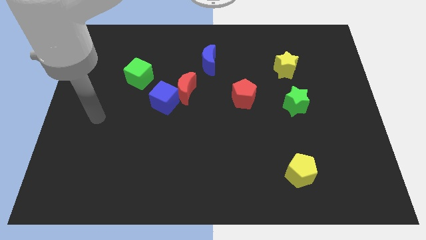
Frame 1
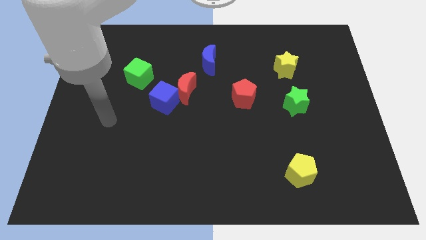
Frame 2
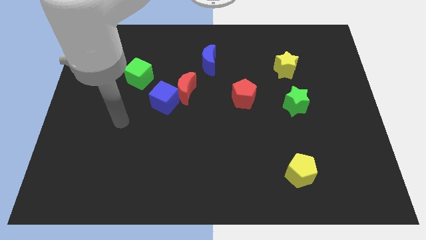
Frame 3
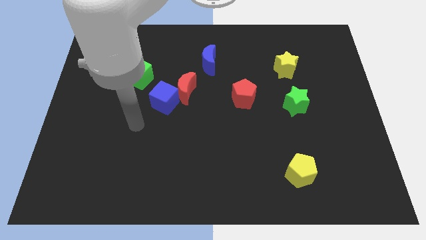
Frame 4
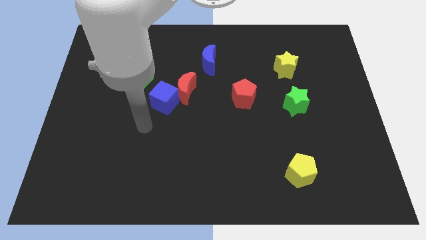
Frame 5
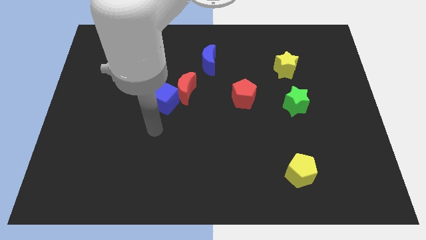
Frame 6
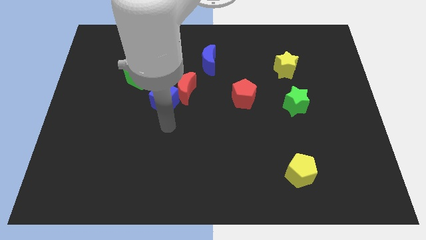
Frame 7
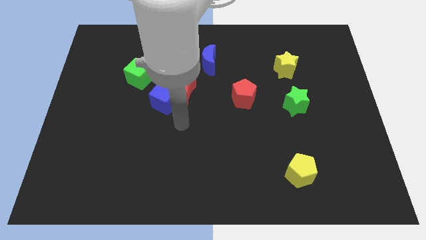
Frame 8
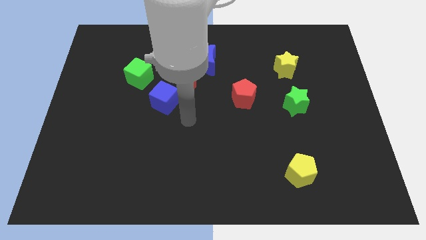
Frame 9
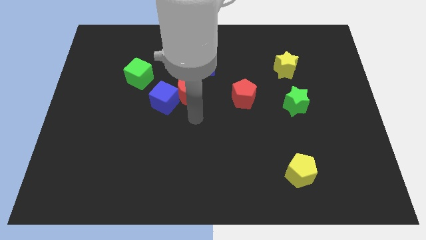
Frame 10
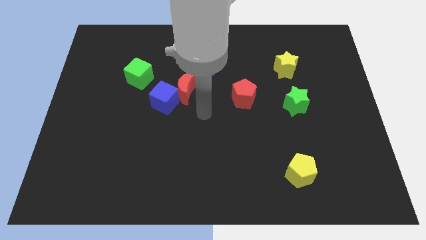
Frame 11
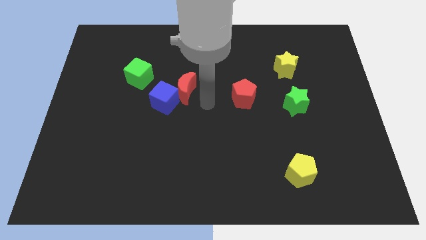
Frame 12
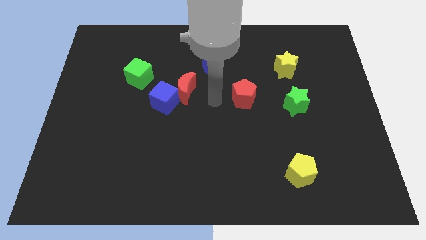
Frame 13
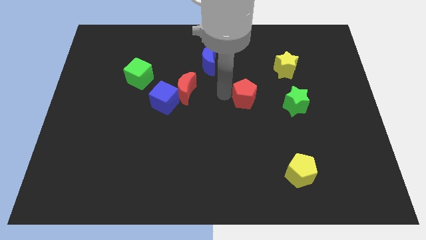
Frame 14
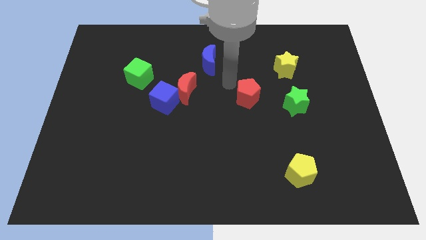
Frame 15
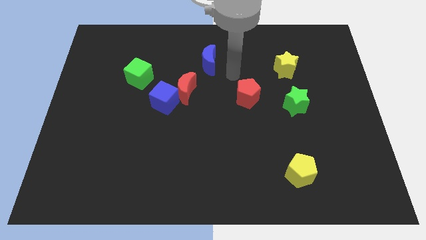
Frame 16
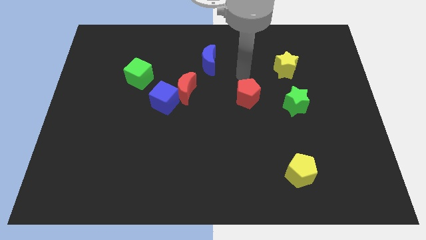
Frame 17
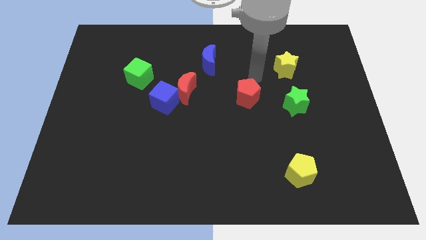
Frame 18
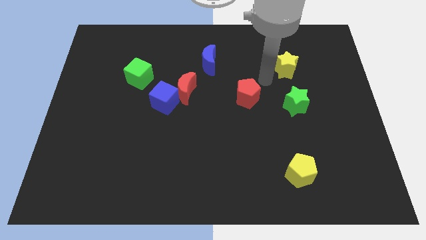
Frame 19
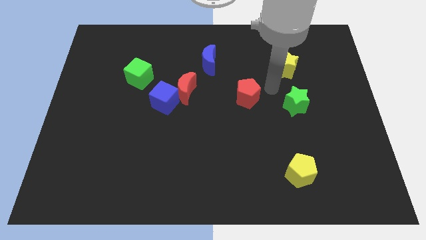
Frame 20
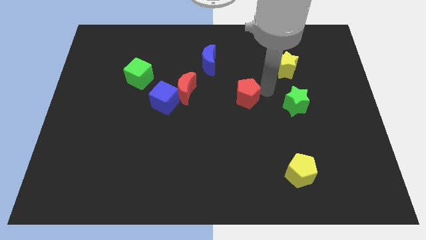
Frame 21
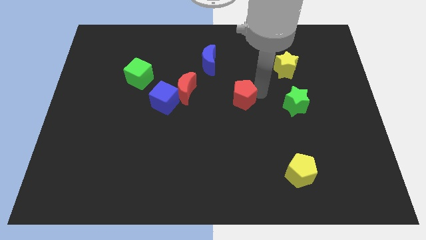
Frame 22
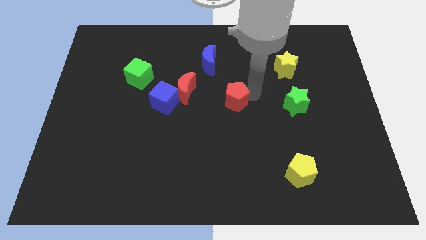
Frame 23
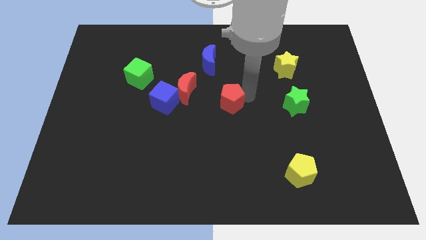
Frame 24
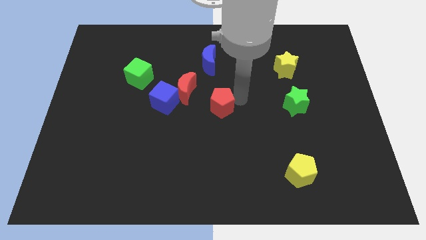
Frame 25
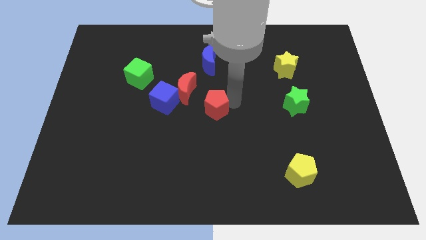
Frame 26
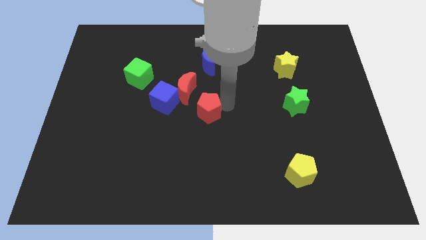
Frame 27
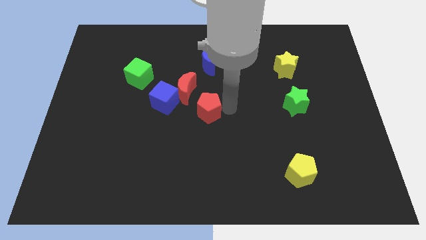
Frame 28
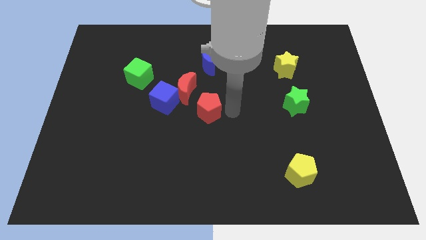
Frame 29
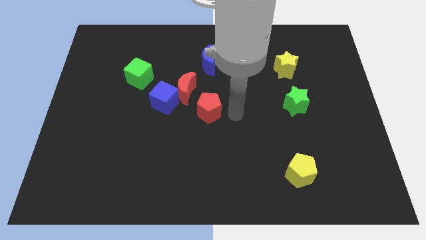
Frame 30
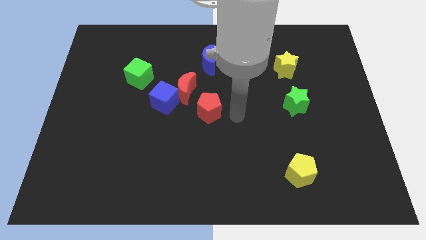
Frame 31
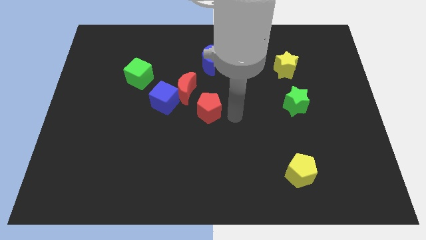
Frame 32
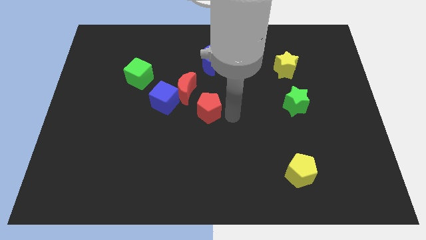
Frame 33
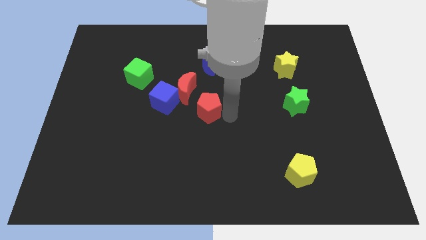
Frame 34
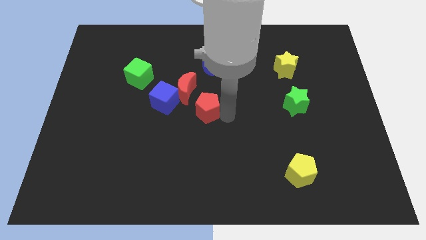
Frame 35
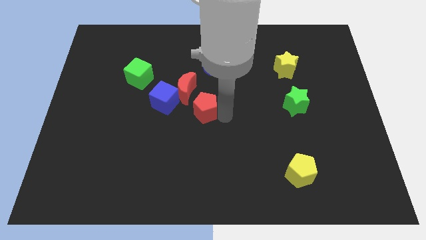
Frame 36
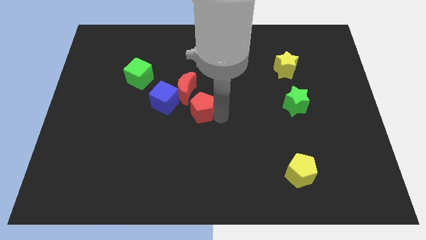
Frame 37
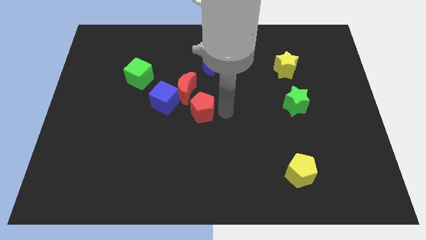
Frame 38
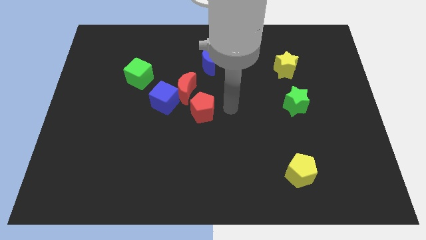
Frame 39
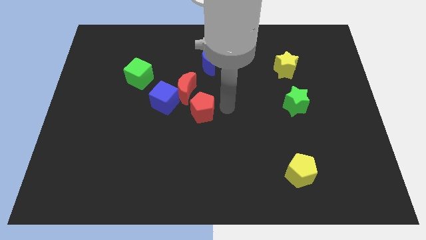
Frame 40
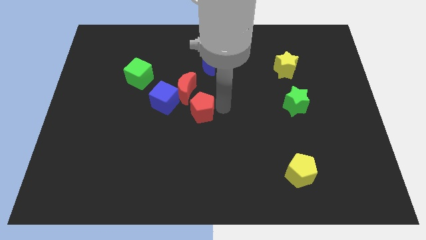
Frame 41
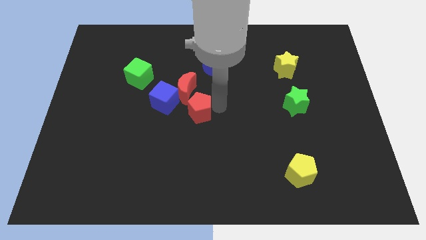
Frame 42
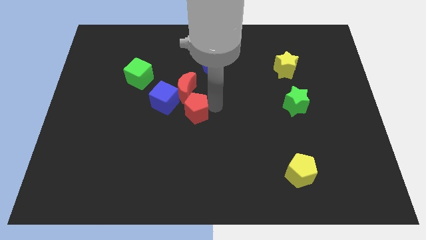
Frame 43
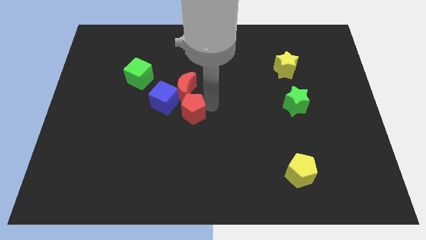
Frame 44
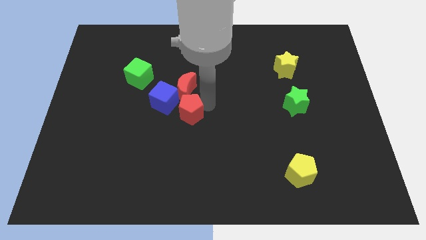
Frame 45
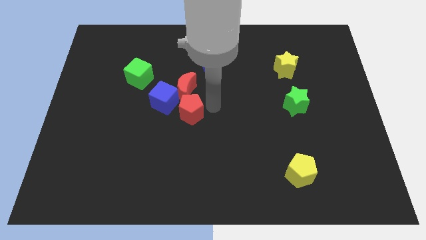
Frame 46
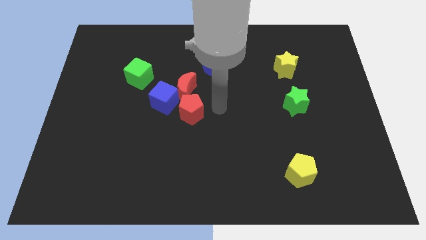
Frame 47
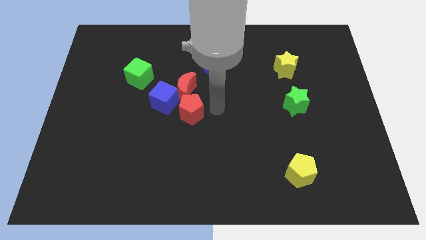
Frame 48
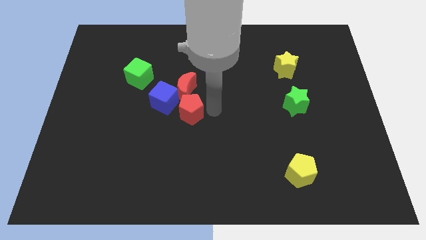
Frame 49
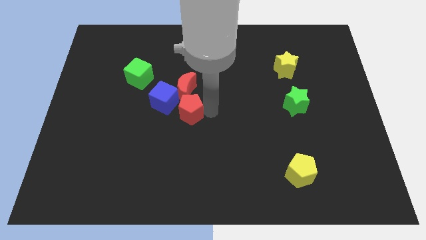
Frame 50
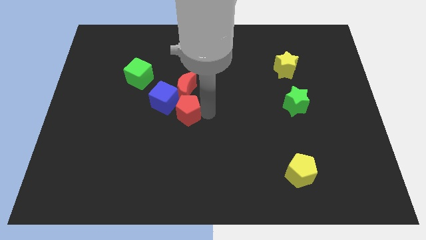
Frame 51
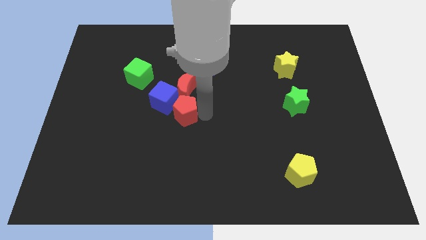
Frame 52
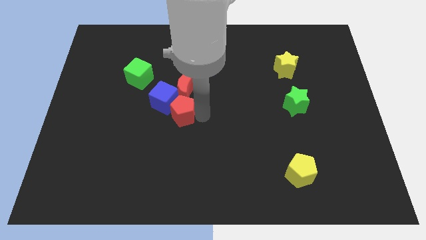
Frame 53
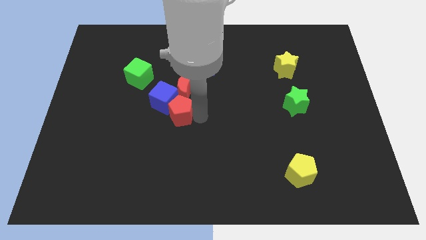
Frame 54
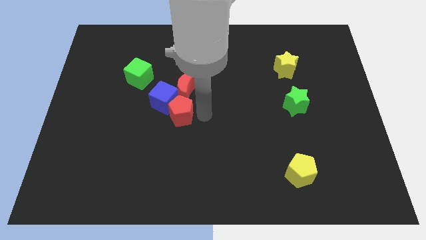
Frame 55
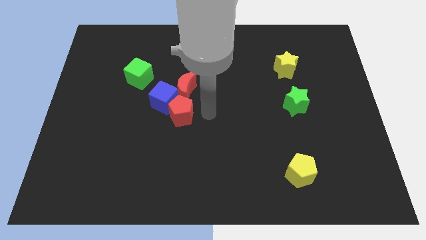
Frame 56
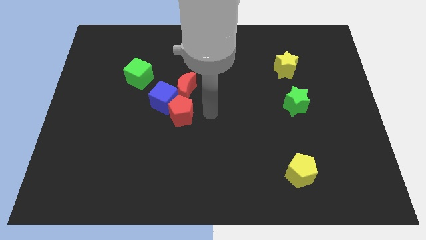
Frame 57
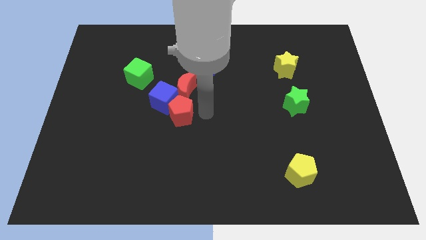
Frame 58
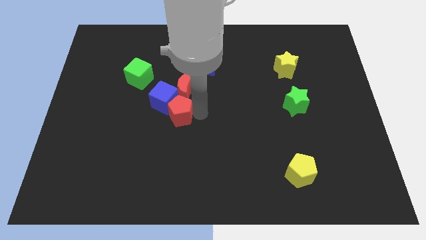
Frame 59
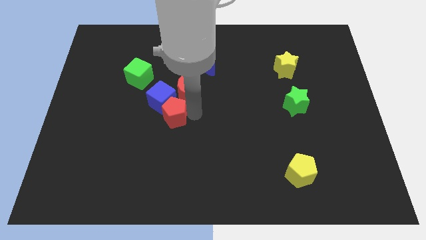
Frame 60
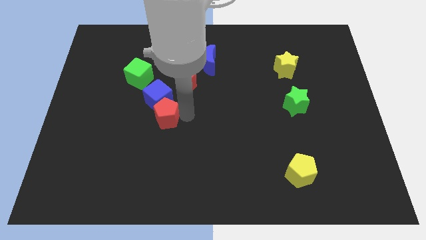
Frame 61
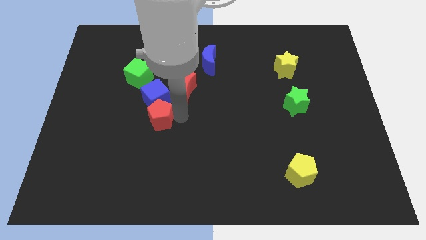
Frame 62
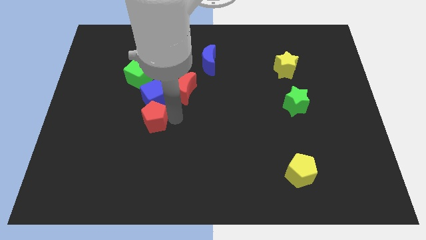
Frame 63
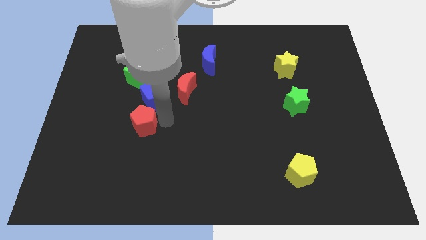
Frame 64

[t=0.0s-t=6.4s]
push the red pentagon left

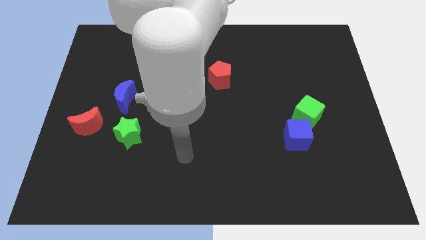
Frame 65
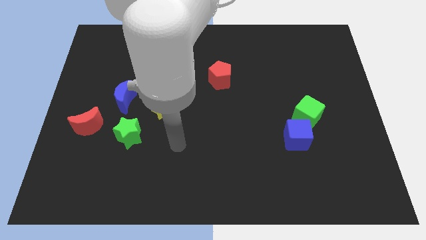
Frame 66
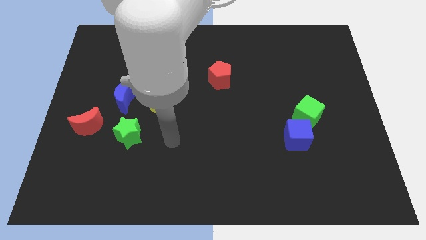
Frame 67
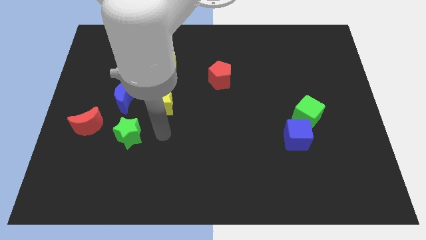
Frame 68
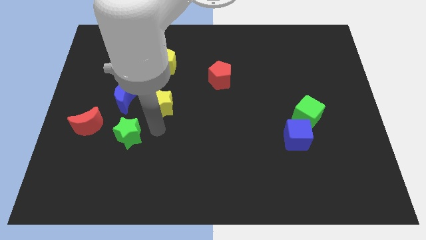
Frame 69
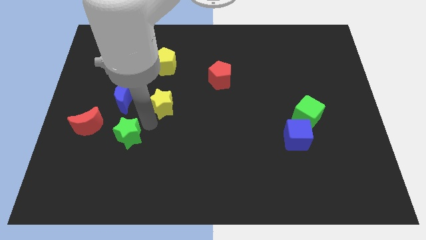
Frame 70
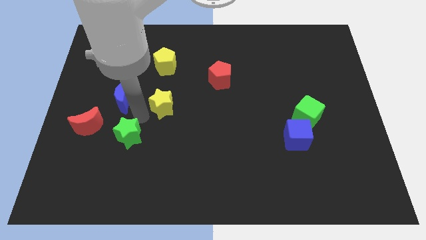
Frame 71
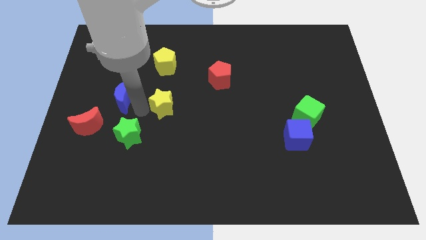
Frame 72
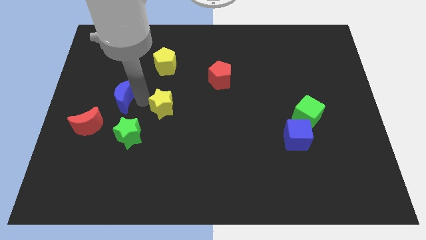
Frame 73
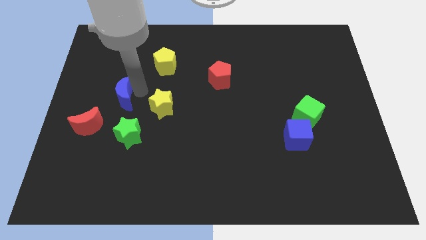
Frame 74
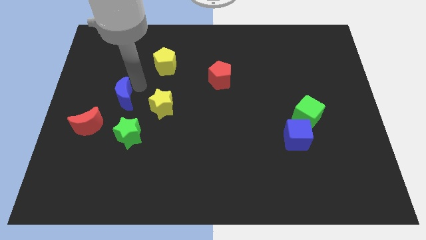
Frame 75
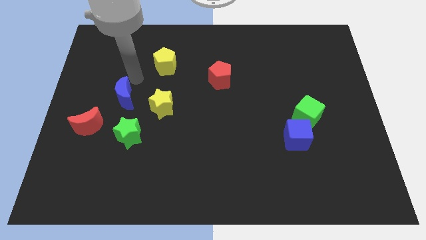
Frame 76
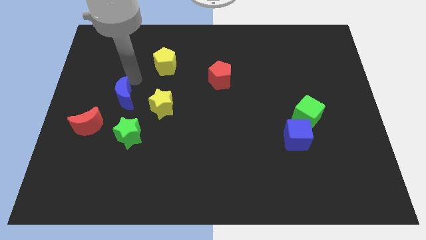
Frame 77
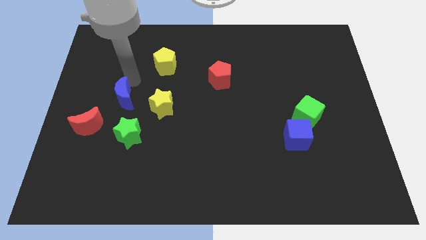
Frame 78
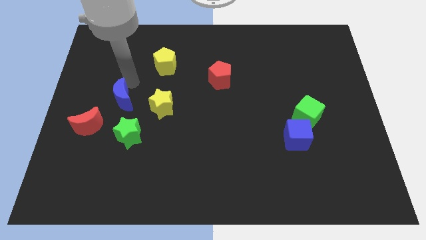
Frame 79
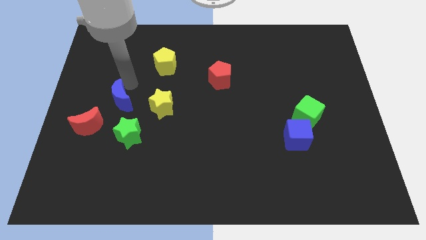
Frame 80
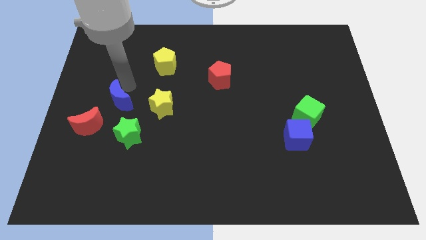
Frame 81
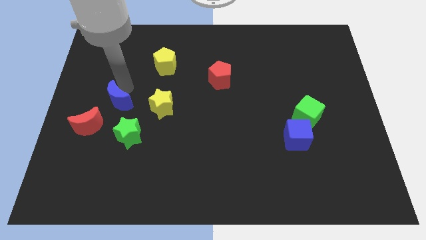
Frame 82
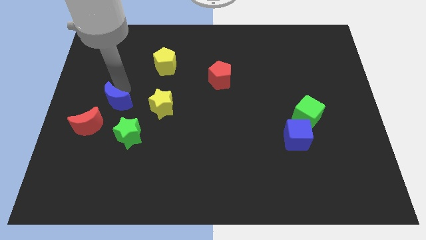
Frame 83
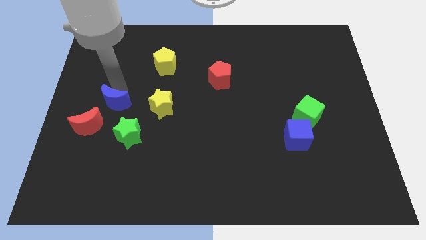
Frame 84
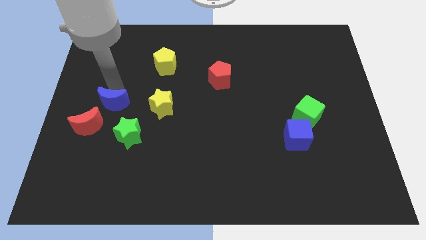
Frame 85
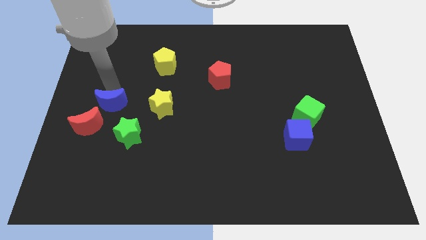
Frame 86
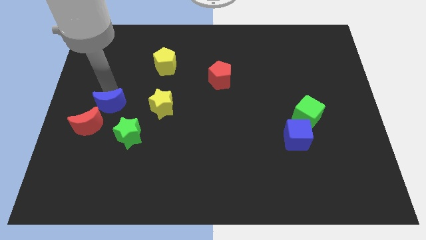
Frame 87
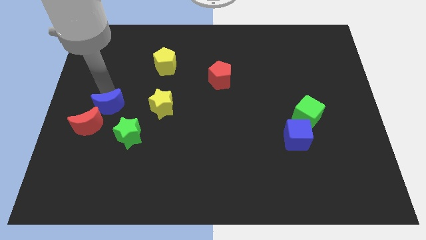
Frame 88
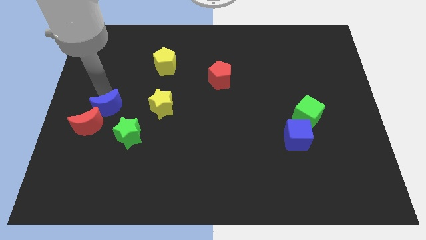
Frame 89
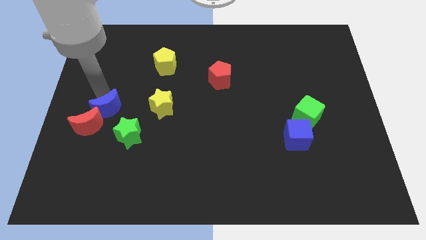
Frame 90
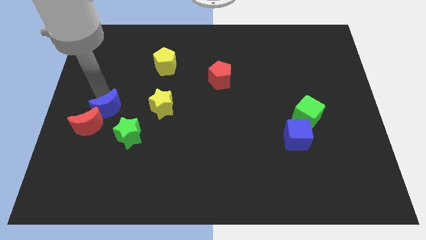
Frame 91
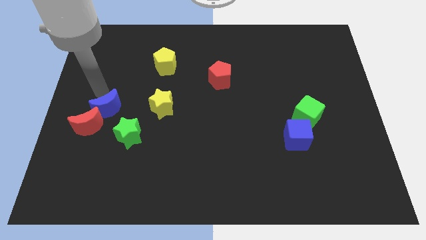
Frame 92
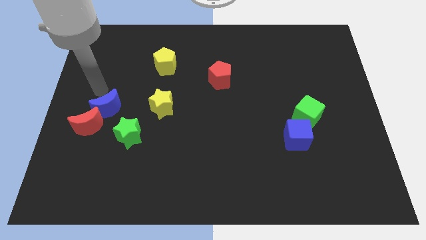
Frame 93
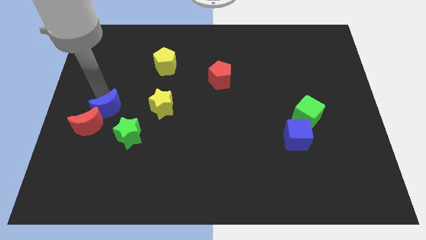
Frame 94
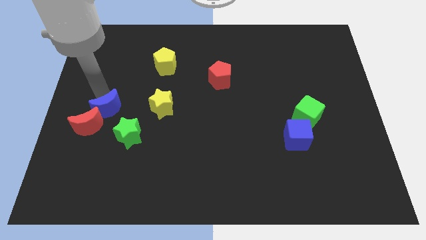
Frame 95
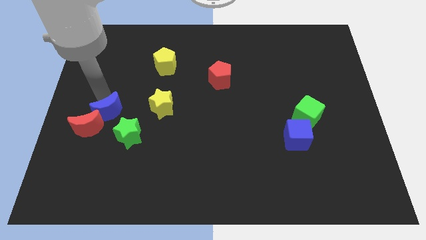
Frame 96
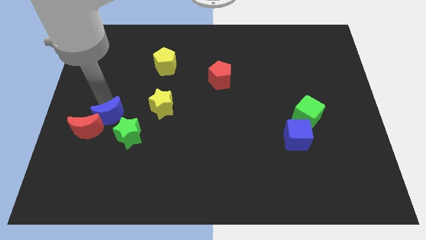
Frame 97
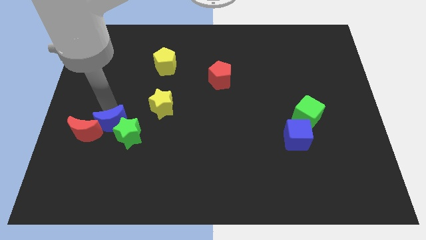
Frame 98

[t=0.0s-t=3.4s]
slide the blue moon downwards a little bit
